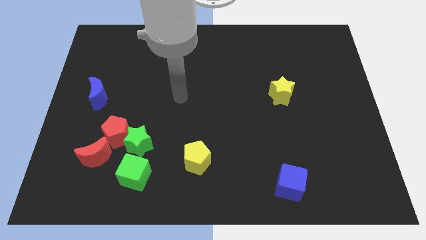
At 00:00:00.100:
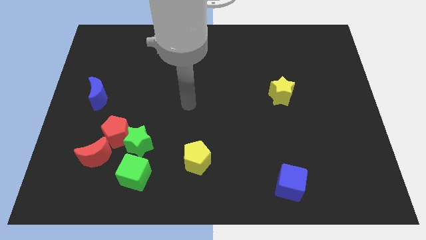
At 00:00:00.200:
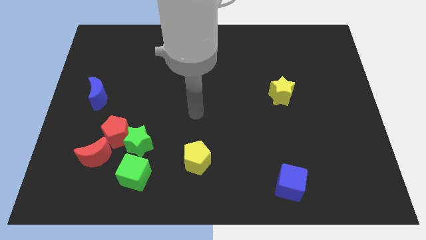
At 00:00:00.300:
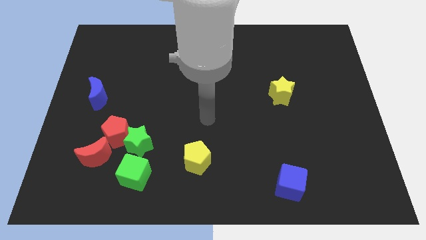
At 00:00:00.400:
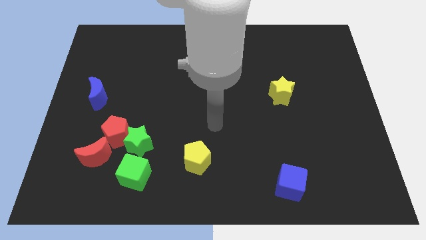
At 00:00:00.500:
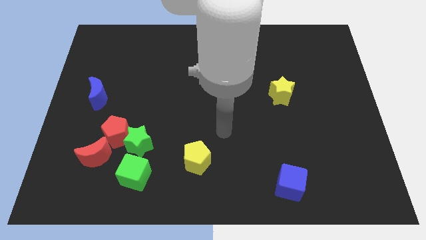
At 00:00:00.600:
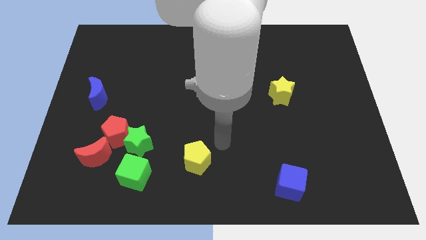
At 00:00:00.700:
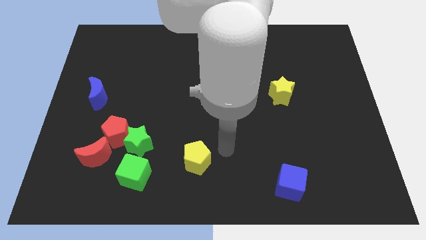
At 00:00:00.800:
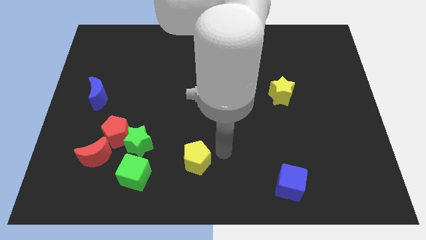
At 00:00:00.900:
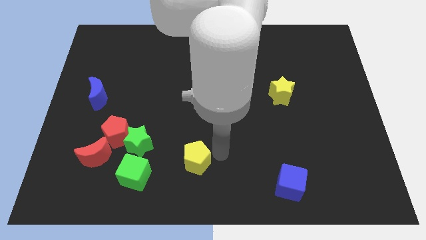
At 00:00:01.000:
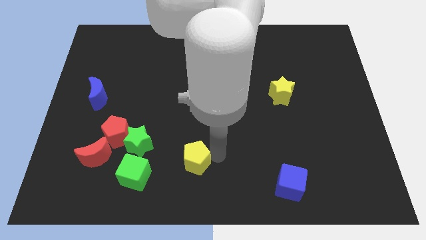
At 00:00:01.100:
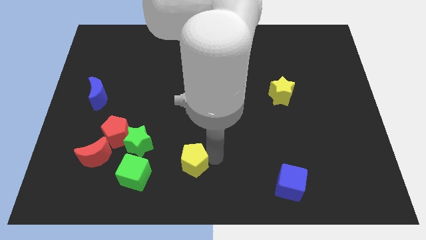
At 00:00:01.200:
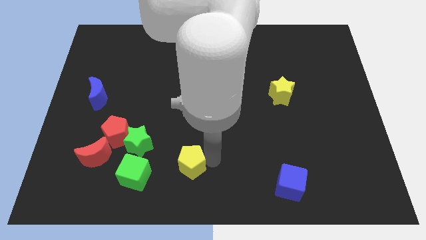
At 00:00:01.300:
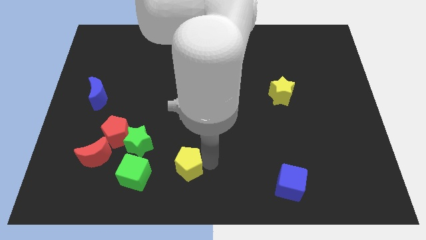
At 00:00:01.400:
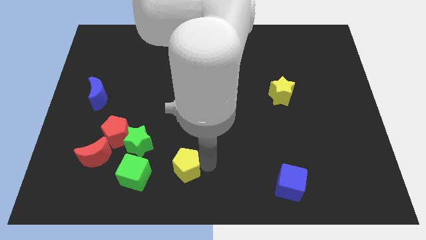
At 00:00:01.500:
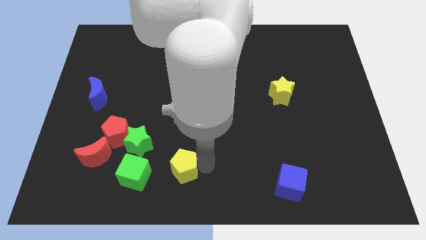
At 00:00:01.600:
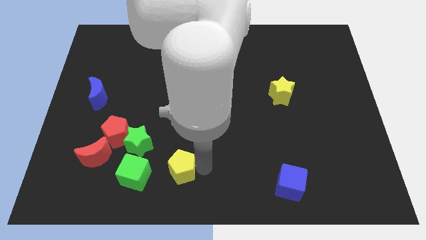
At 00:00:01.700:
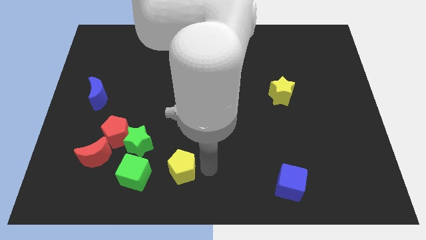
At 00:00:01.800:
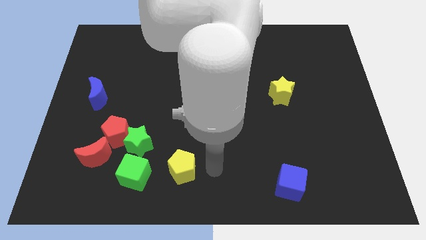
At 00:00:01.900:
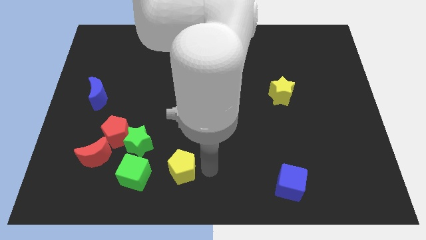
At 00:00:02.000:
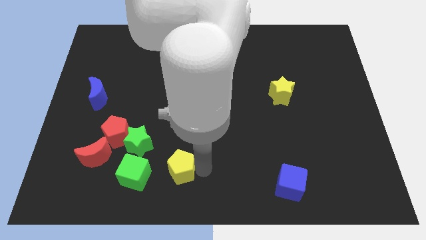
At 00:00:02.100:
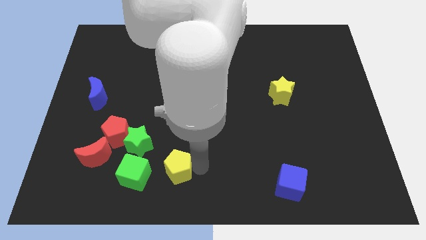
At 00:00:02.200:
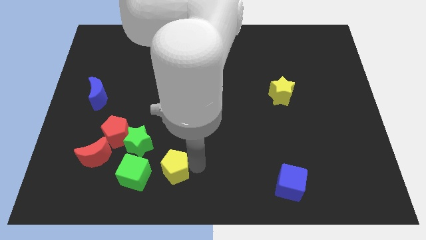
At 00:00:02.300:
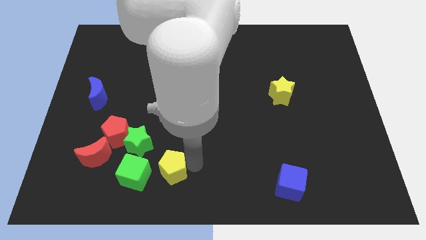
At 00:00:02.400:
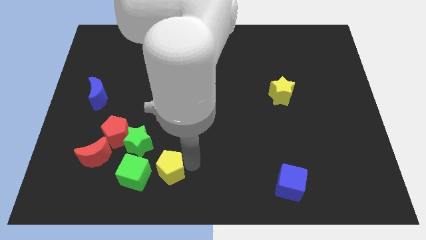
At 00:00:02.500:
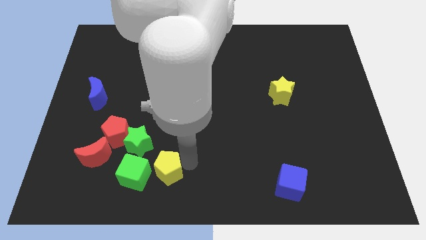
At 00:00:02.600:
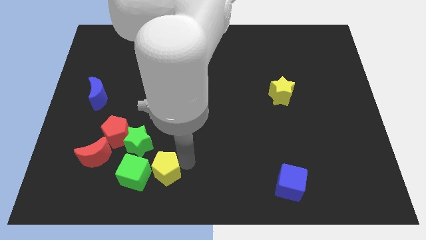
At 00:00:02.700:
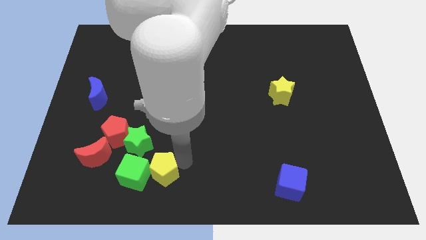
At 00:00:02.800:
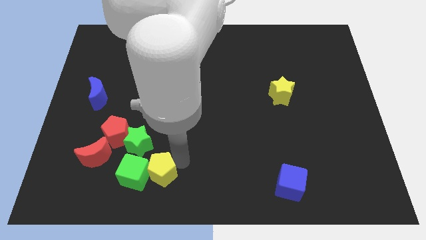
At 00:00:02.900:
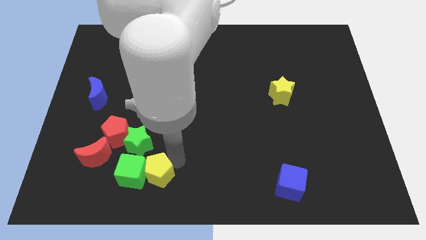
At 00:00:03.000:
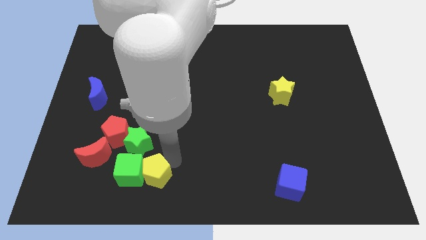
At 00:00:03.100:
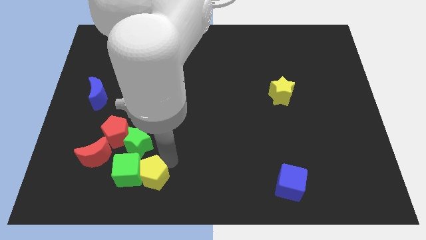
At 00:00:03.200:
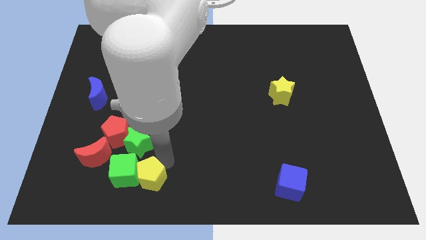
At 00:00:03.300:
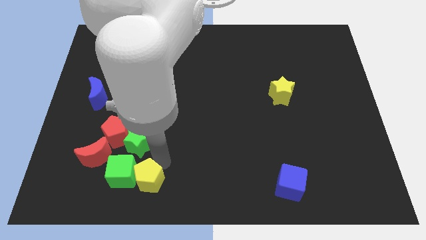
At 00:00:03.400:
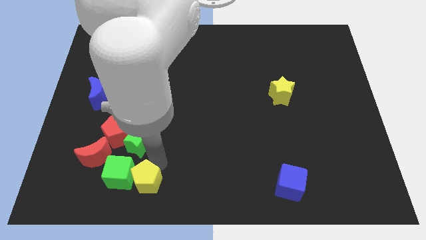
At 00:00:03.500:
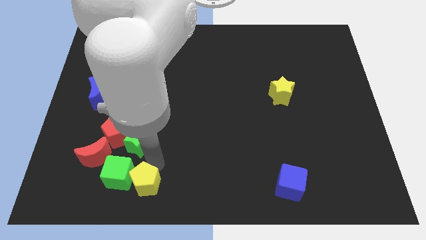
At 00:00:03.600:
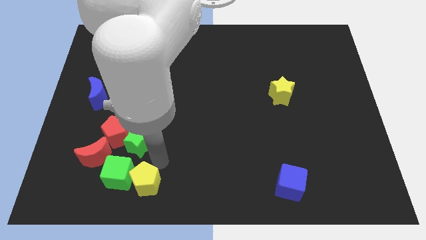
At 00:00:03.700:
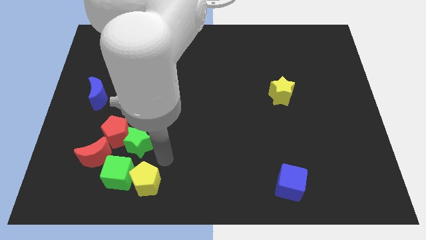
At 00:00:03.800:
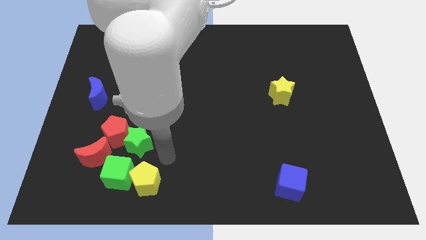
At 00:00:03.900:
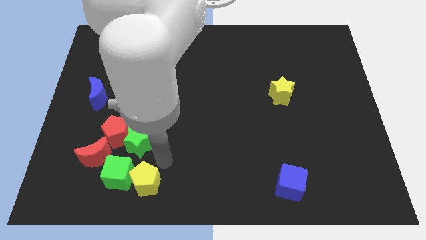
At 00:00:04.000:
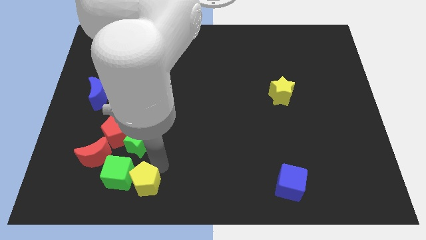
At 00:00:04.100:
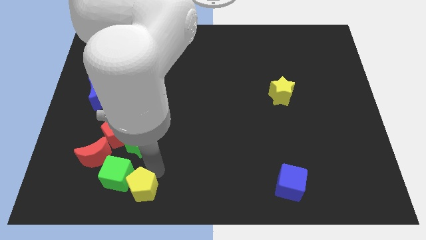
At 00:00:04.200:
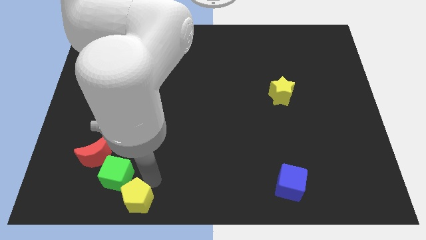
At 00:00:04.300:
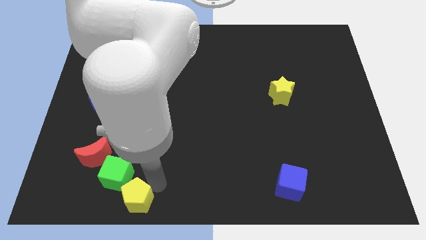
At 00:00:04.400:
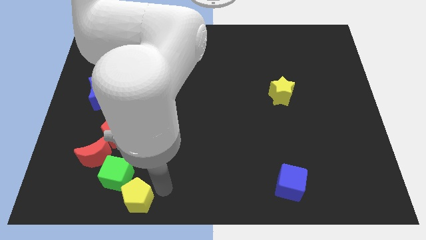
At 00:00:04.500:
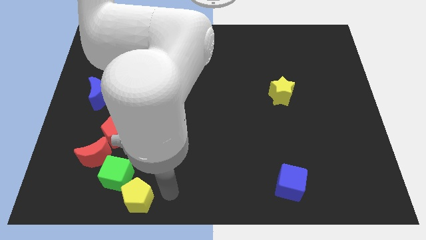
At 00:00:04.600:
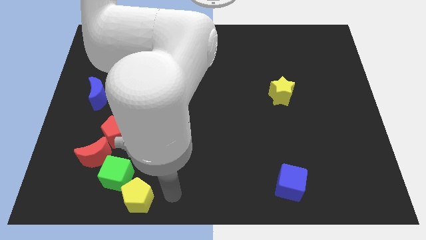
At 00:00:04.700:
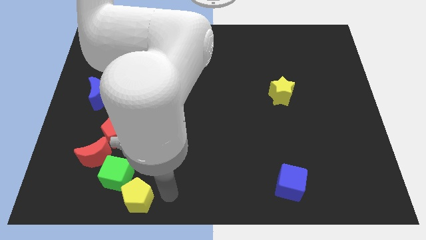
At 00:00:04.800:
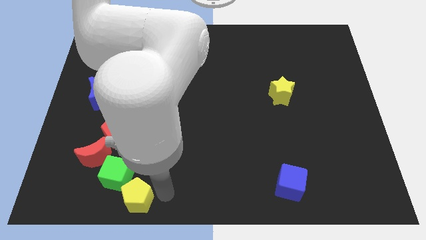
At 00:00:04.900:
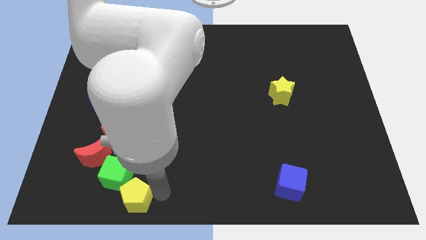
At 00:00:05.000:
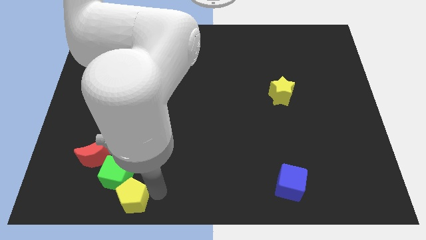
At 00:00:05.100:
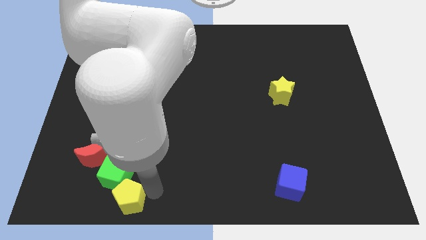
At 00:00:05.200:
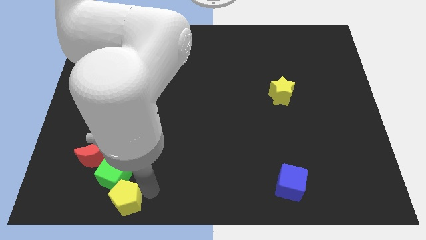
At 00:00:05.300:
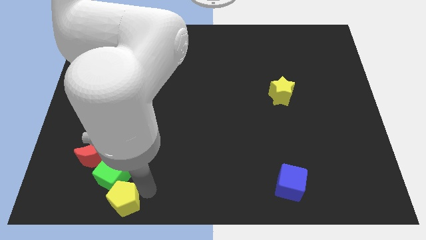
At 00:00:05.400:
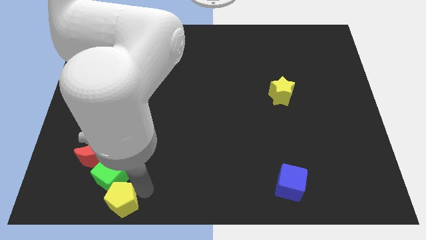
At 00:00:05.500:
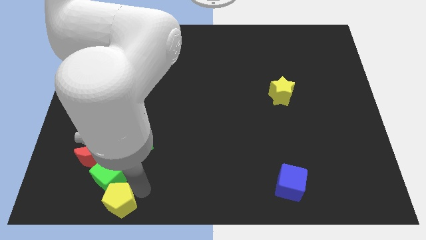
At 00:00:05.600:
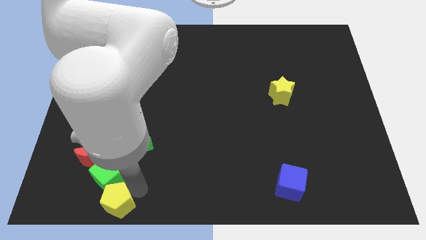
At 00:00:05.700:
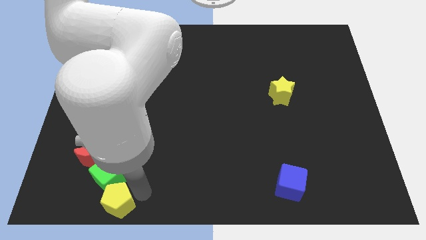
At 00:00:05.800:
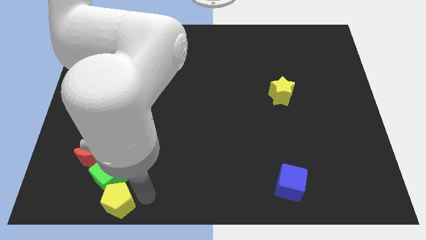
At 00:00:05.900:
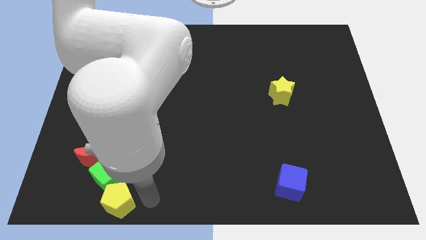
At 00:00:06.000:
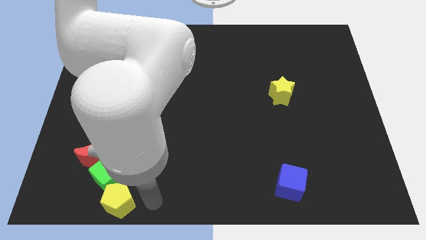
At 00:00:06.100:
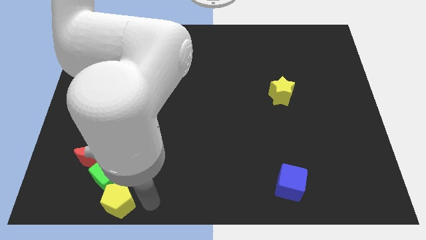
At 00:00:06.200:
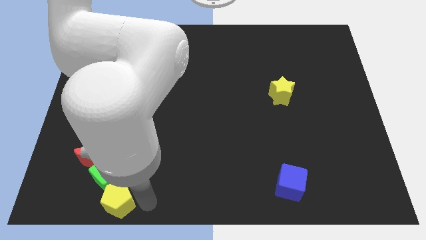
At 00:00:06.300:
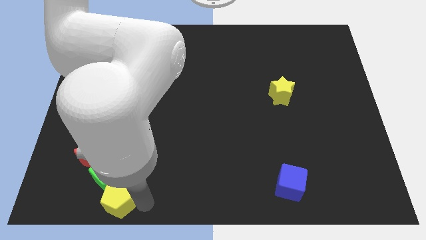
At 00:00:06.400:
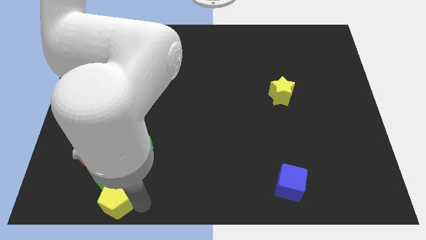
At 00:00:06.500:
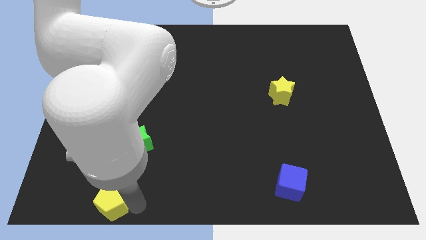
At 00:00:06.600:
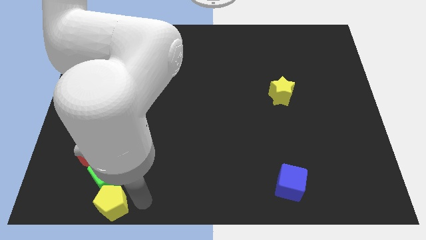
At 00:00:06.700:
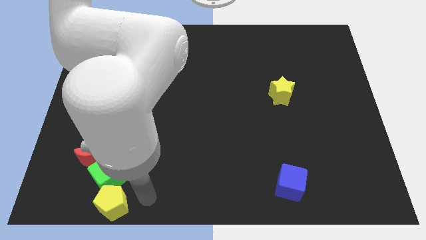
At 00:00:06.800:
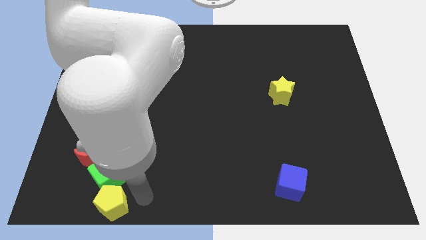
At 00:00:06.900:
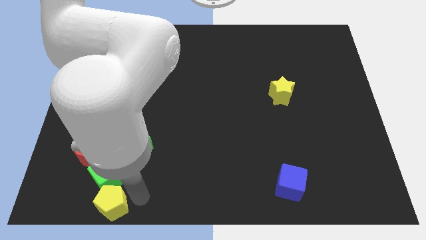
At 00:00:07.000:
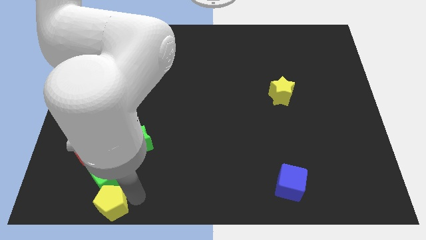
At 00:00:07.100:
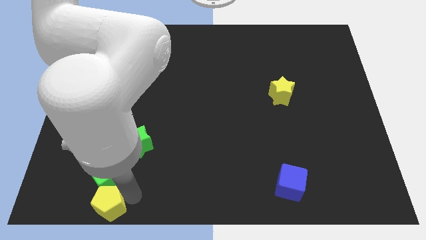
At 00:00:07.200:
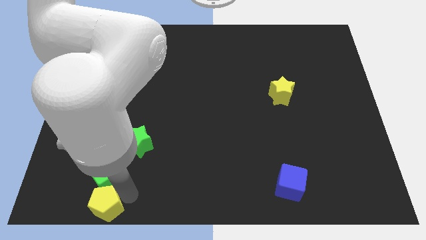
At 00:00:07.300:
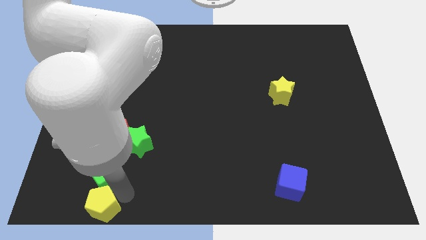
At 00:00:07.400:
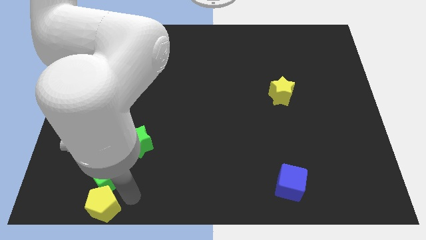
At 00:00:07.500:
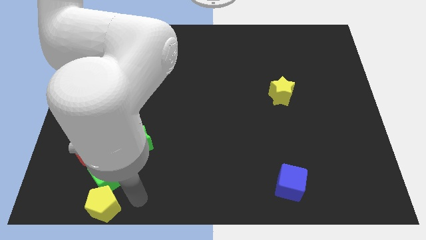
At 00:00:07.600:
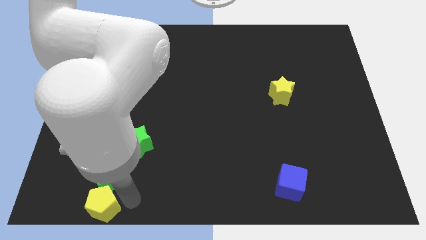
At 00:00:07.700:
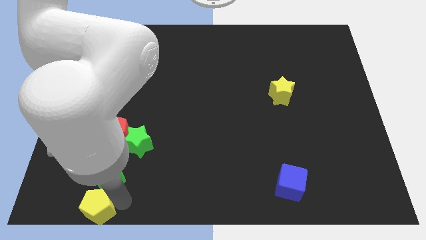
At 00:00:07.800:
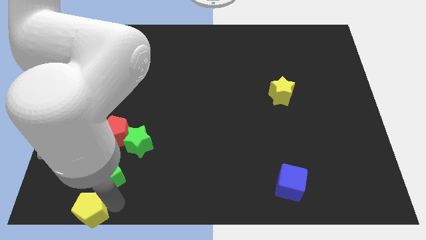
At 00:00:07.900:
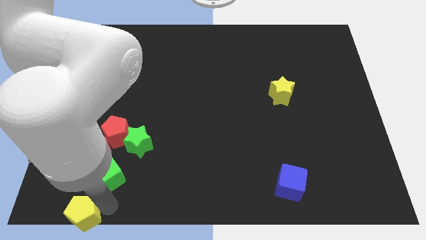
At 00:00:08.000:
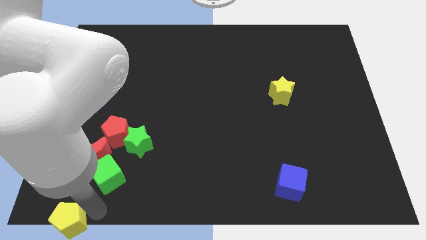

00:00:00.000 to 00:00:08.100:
put the yellow pentagon to the bottom left
